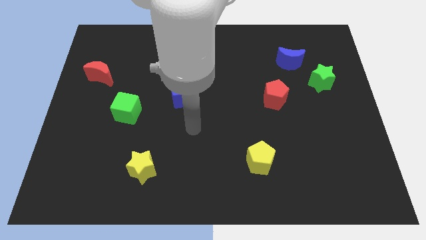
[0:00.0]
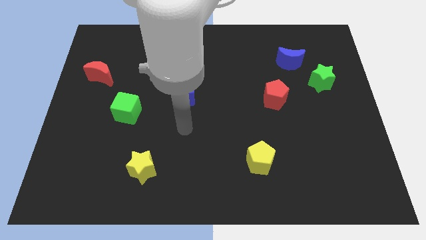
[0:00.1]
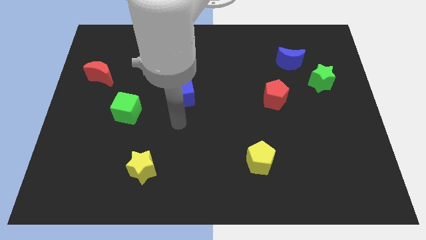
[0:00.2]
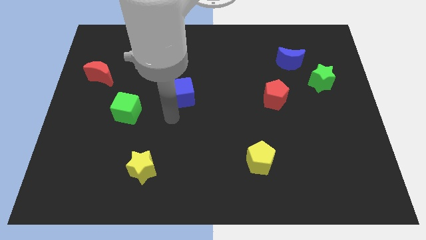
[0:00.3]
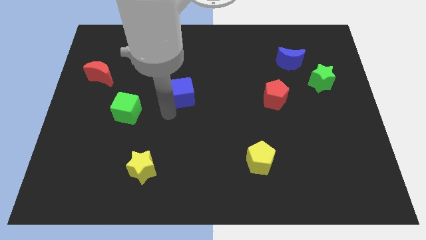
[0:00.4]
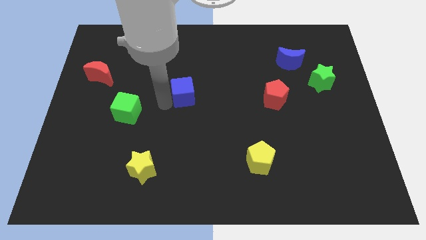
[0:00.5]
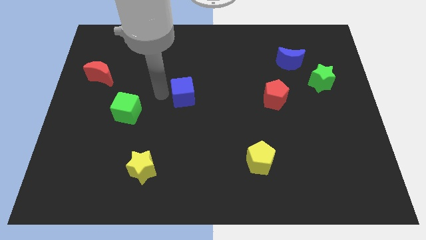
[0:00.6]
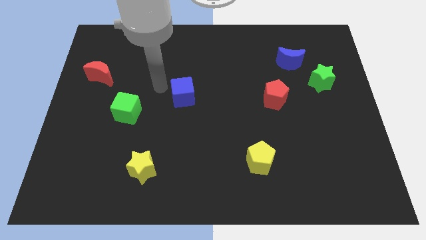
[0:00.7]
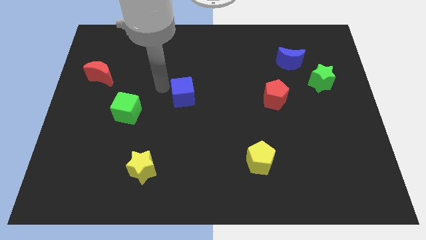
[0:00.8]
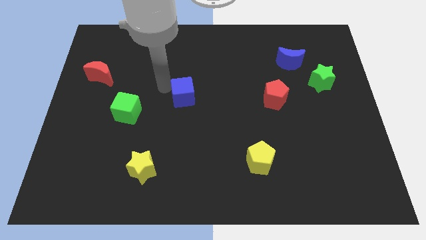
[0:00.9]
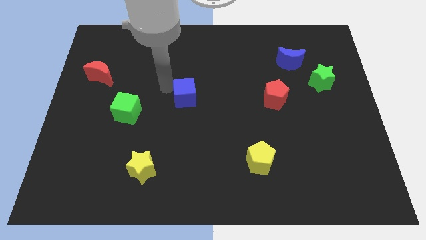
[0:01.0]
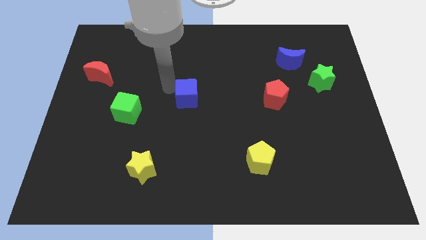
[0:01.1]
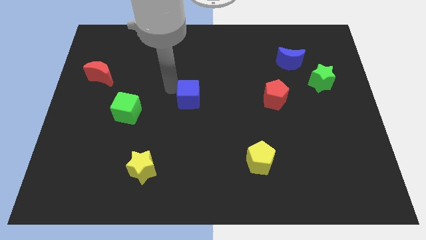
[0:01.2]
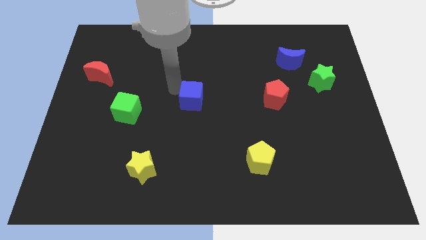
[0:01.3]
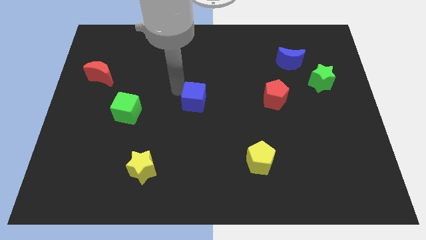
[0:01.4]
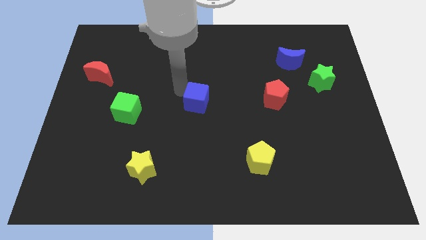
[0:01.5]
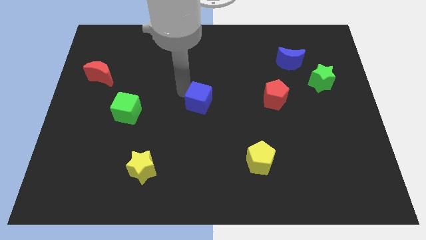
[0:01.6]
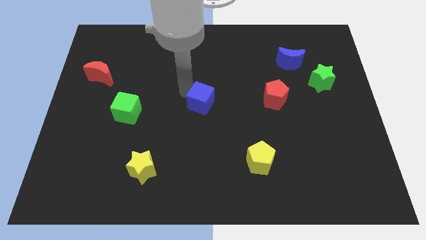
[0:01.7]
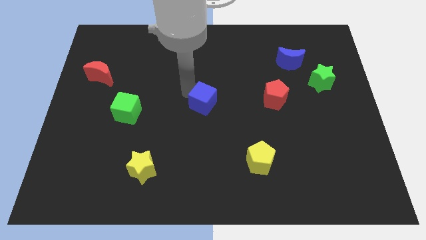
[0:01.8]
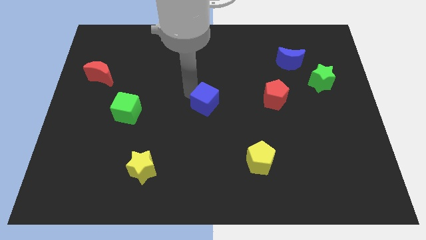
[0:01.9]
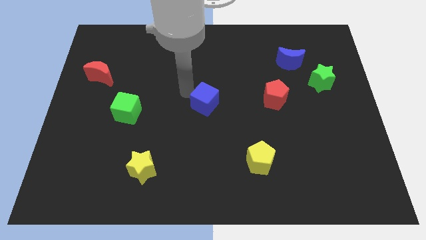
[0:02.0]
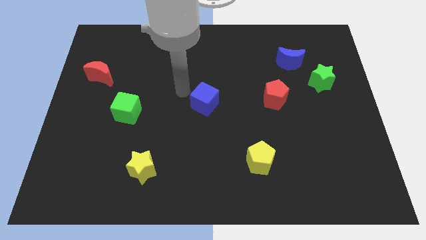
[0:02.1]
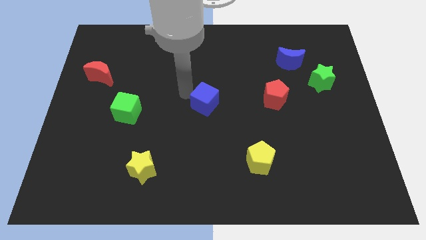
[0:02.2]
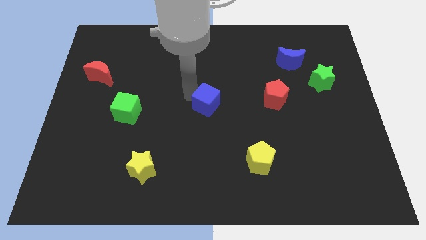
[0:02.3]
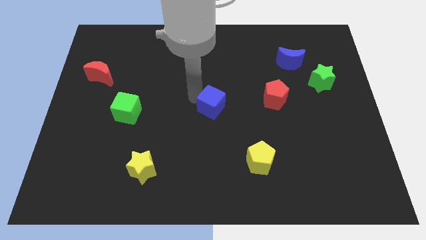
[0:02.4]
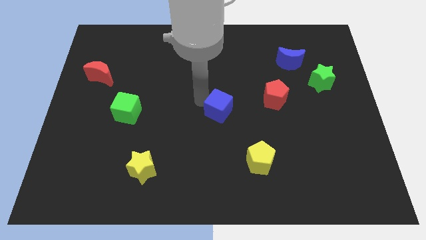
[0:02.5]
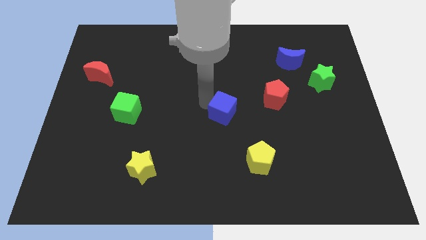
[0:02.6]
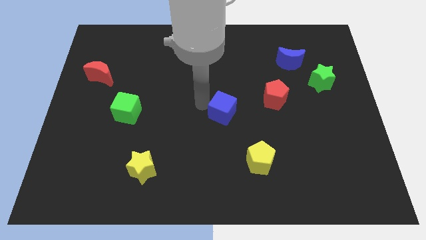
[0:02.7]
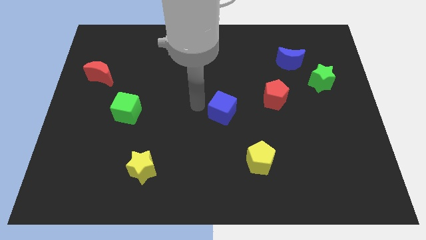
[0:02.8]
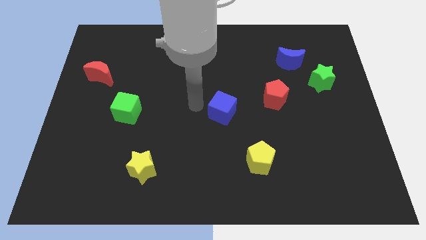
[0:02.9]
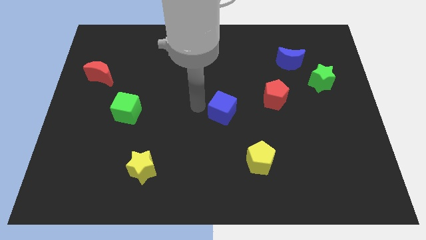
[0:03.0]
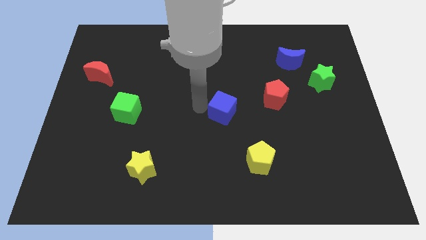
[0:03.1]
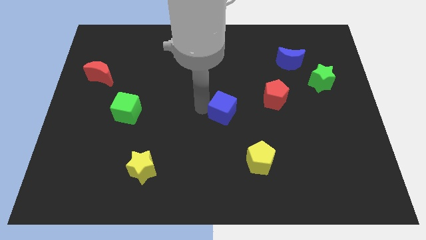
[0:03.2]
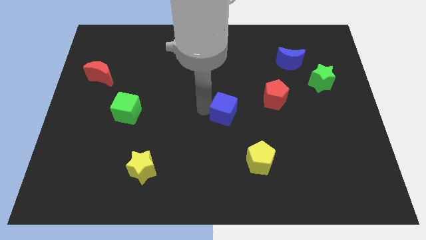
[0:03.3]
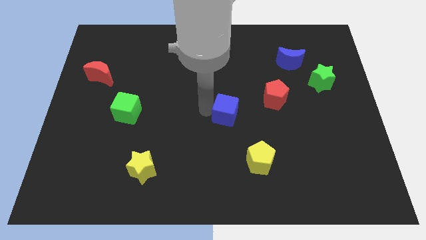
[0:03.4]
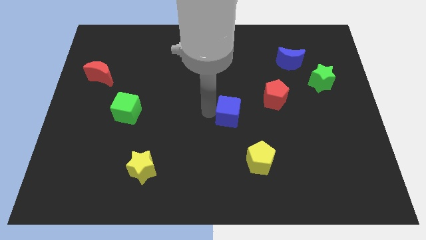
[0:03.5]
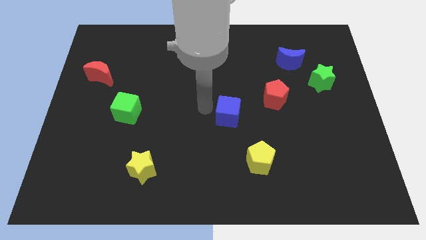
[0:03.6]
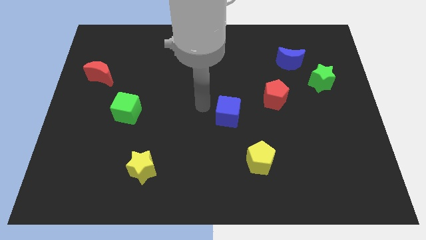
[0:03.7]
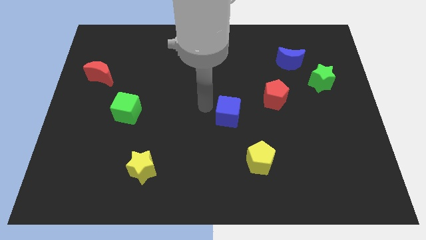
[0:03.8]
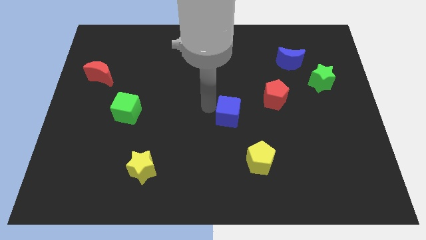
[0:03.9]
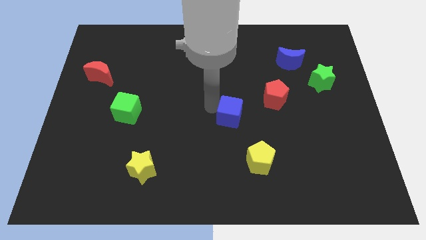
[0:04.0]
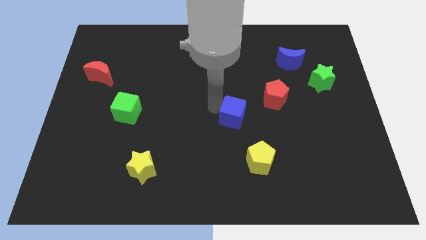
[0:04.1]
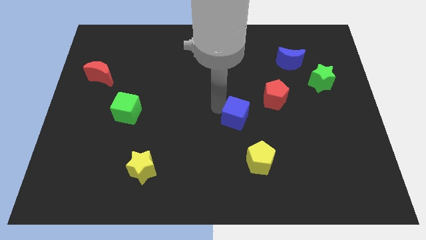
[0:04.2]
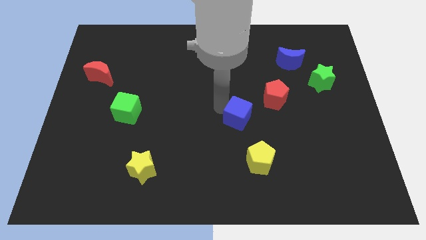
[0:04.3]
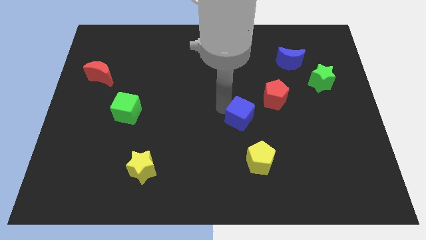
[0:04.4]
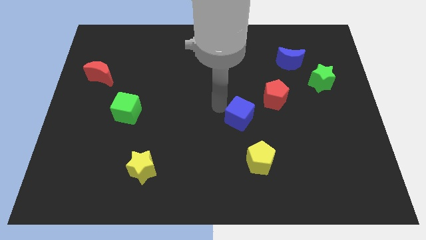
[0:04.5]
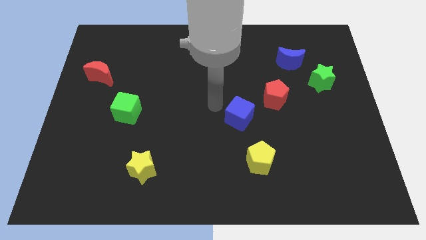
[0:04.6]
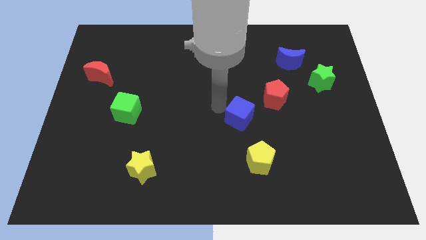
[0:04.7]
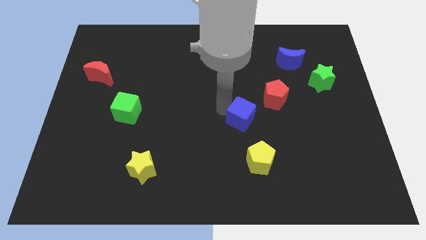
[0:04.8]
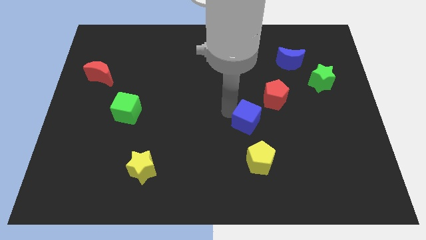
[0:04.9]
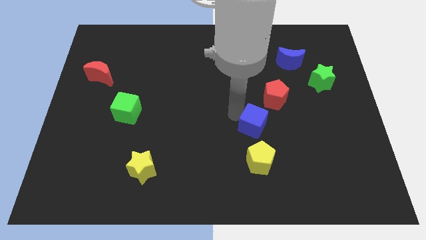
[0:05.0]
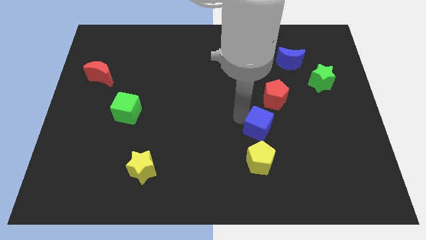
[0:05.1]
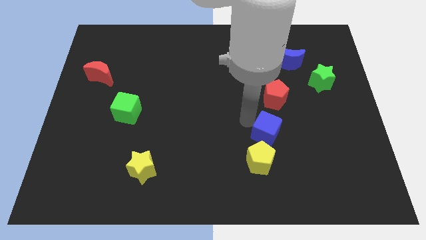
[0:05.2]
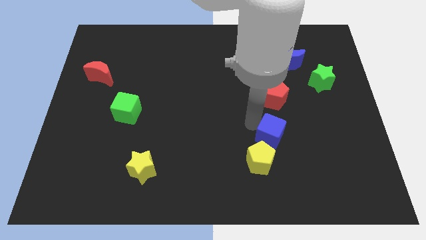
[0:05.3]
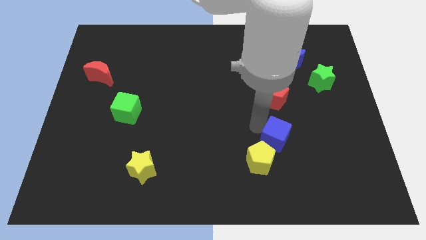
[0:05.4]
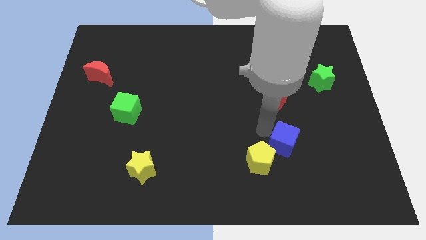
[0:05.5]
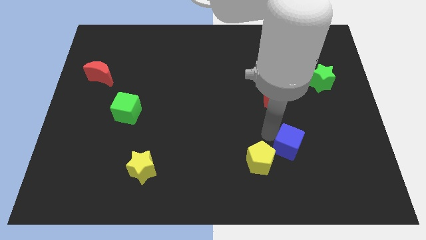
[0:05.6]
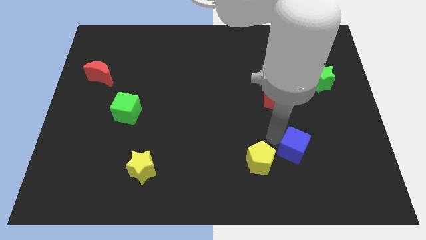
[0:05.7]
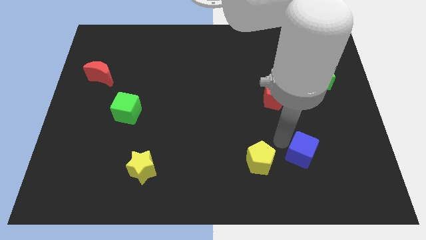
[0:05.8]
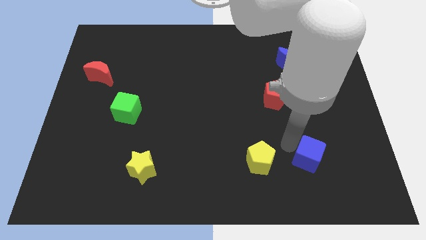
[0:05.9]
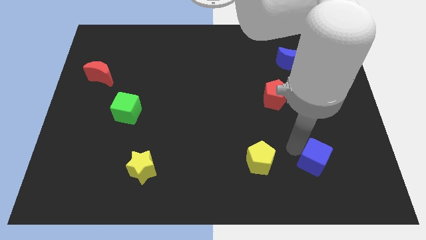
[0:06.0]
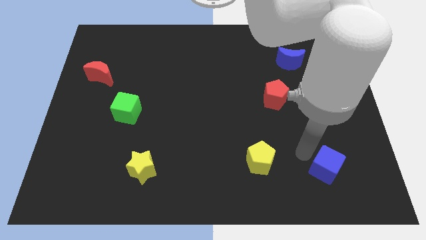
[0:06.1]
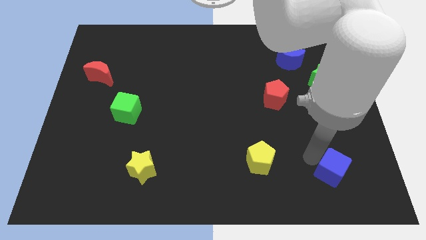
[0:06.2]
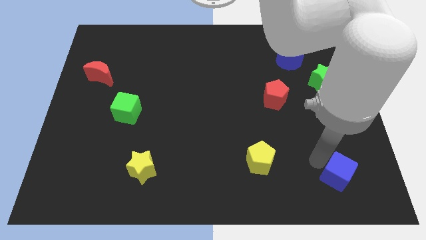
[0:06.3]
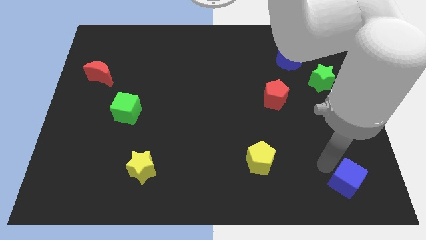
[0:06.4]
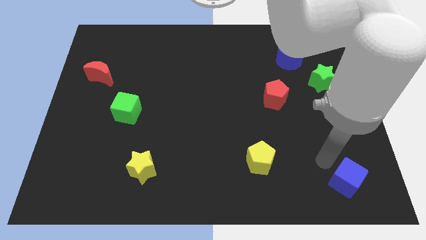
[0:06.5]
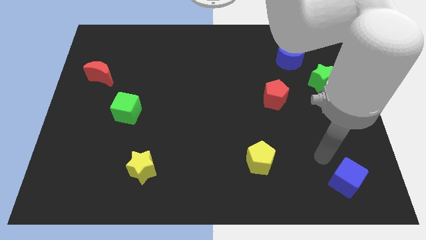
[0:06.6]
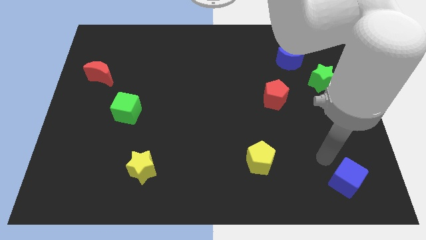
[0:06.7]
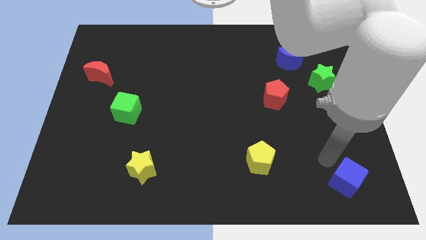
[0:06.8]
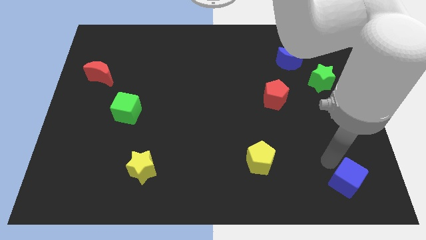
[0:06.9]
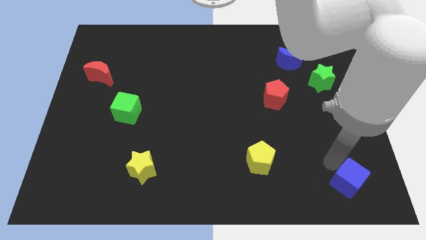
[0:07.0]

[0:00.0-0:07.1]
move the blue cube to the bottom right of the board
